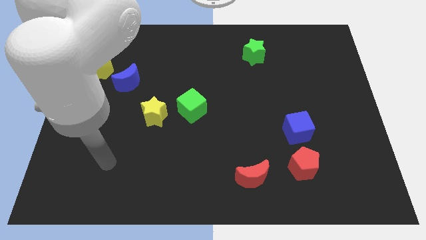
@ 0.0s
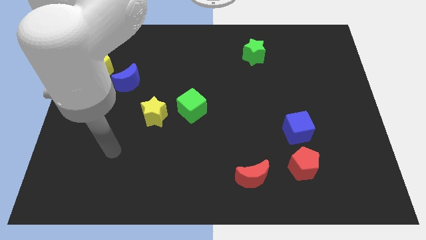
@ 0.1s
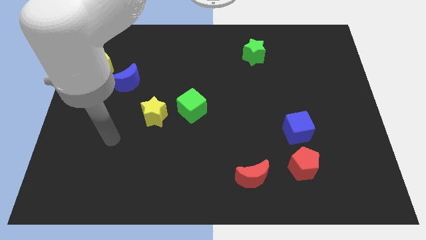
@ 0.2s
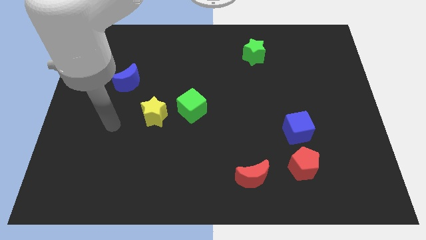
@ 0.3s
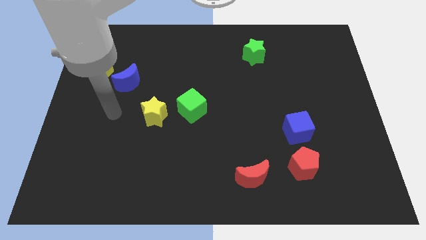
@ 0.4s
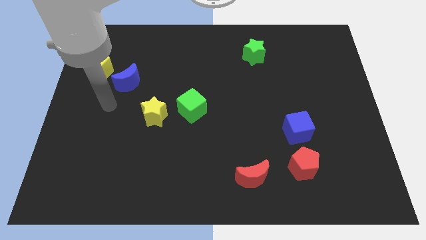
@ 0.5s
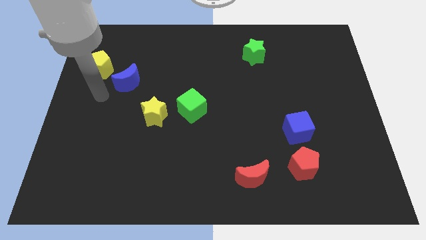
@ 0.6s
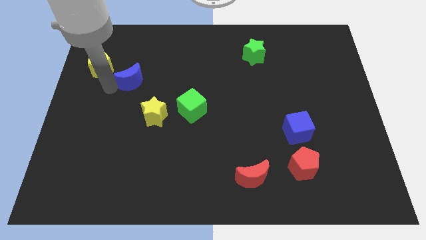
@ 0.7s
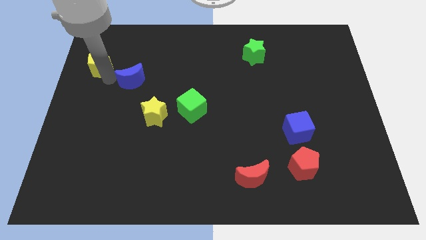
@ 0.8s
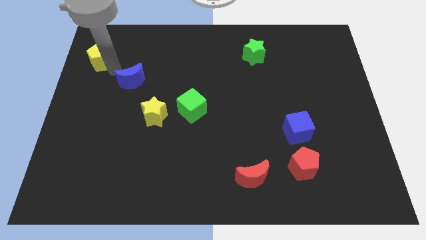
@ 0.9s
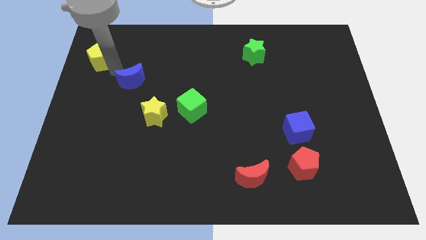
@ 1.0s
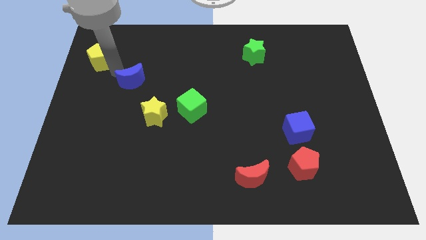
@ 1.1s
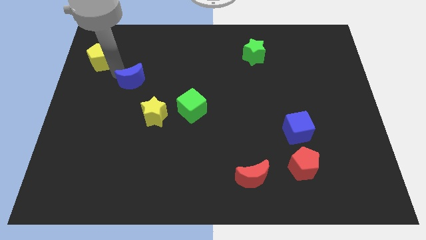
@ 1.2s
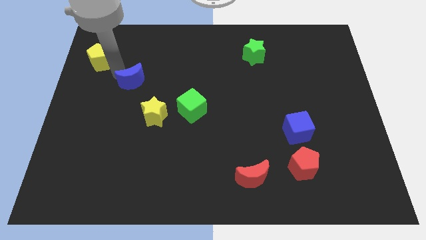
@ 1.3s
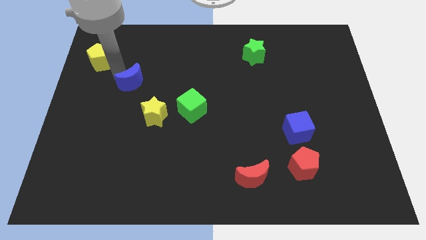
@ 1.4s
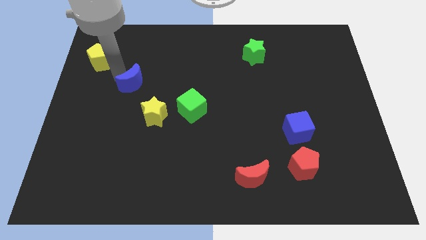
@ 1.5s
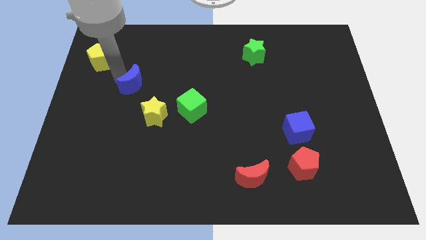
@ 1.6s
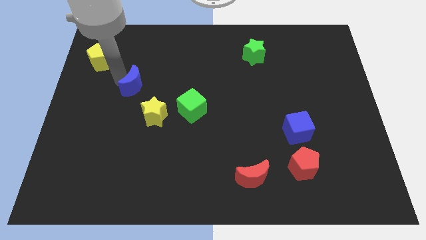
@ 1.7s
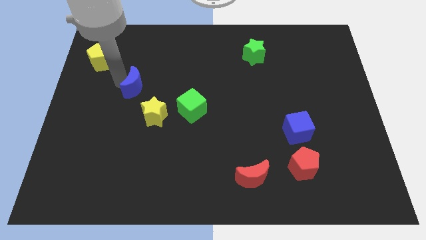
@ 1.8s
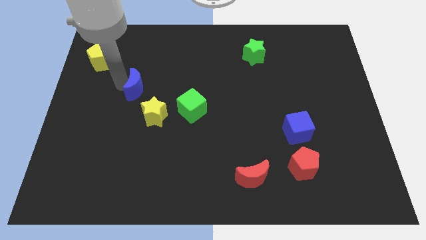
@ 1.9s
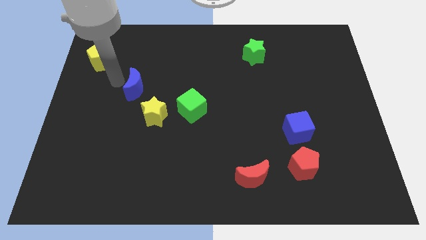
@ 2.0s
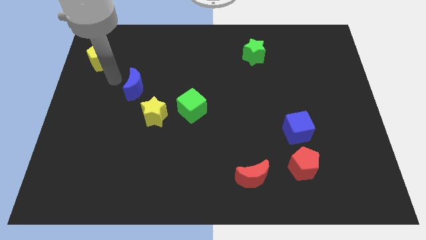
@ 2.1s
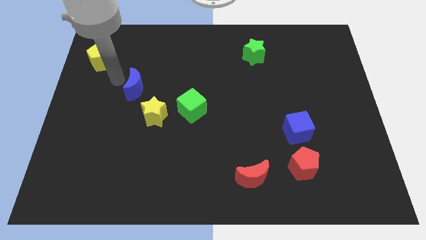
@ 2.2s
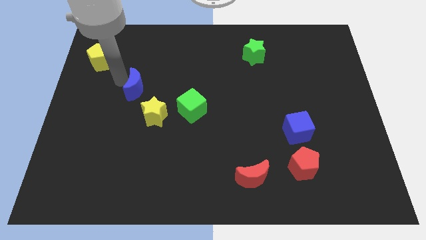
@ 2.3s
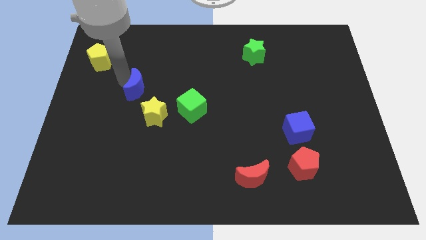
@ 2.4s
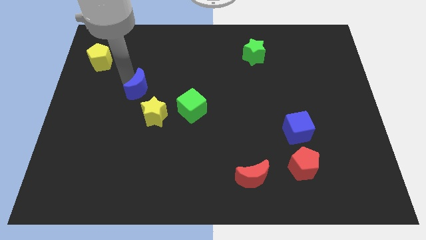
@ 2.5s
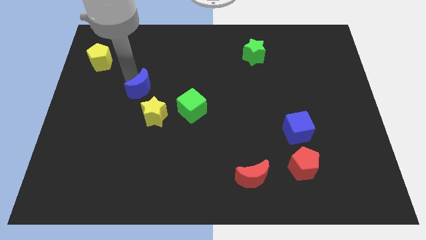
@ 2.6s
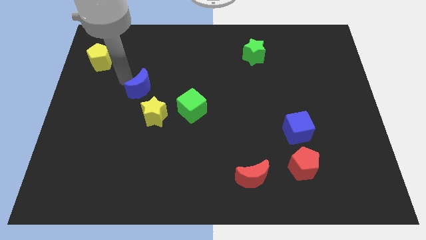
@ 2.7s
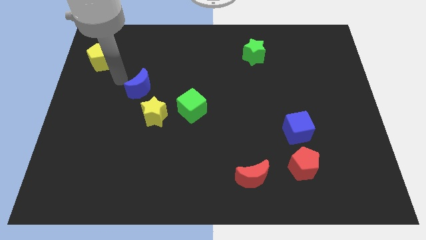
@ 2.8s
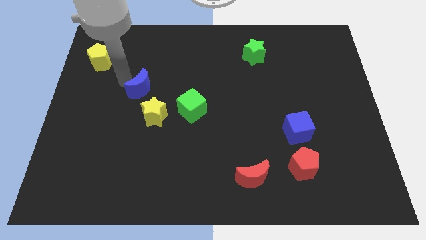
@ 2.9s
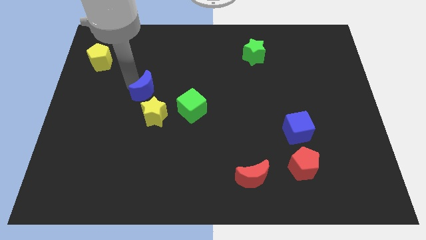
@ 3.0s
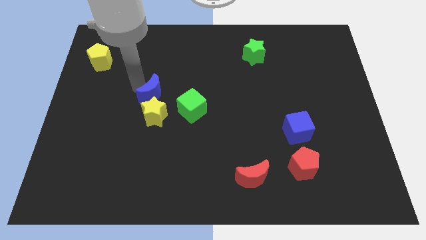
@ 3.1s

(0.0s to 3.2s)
slightly push the blue moon diagonally down and right

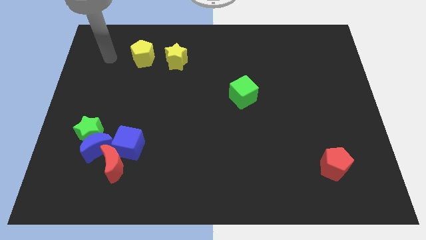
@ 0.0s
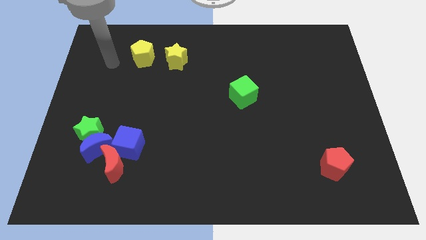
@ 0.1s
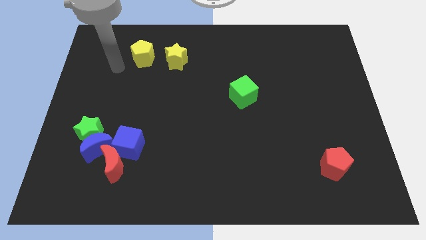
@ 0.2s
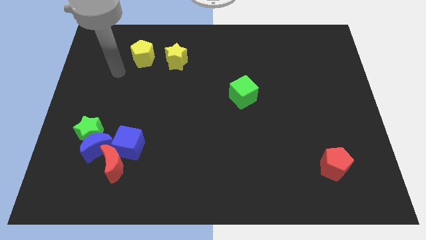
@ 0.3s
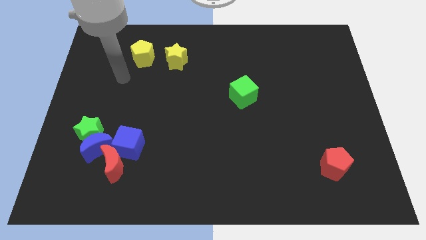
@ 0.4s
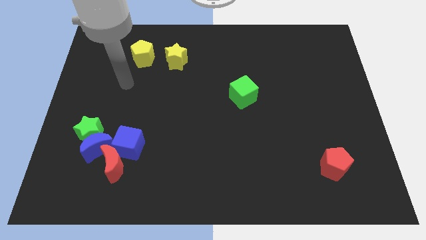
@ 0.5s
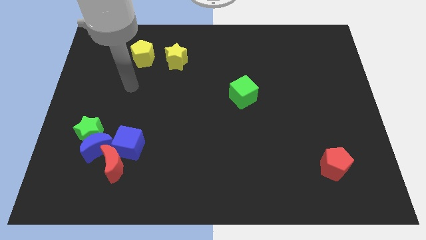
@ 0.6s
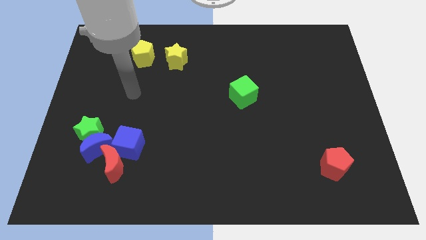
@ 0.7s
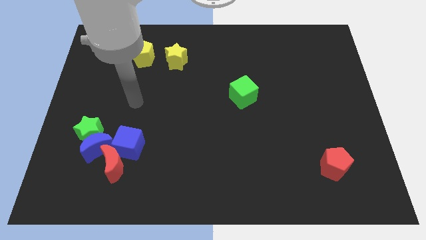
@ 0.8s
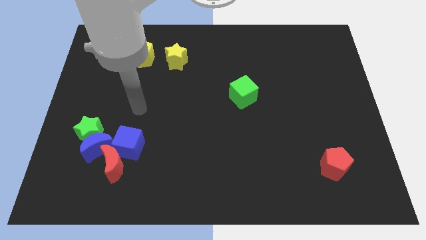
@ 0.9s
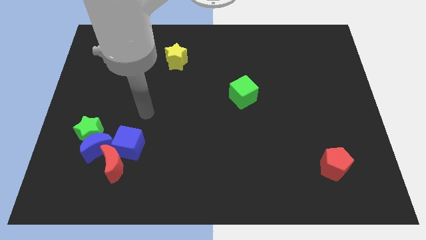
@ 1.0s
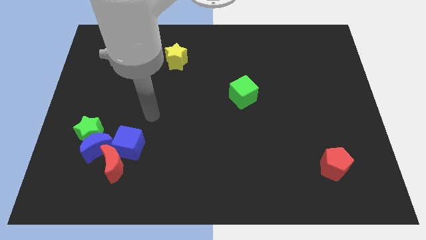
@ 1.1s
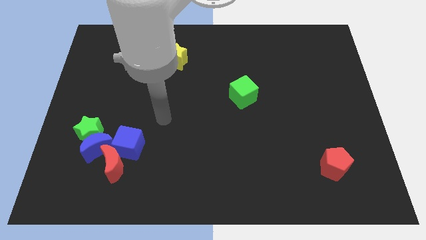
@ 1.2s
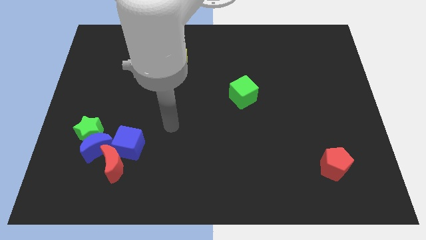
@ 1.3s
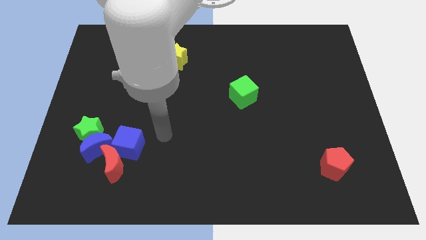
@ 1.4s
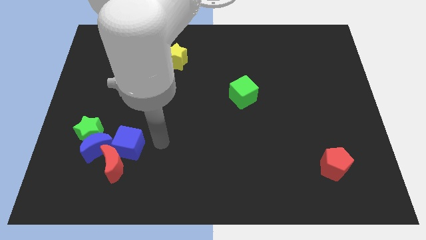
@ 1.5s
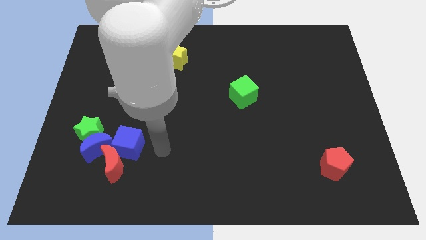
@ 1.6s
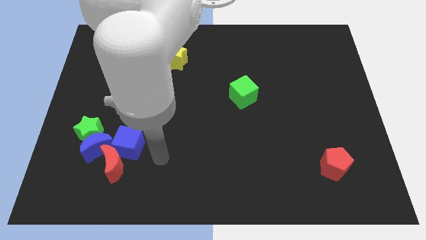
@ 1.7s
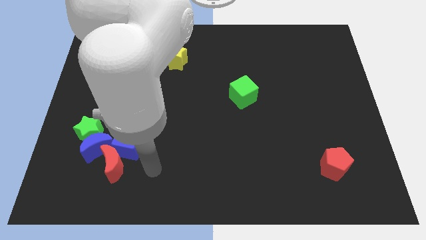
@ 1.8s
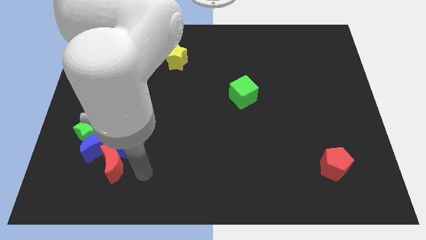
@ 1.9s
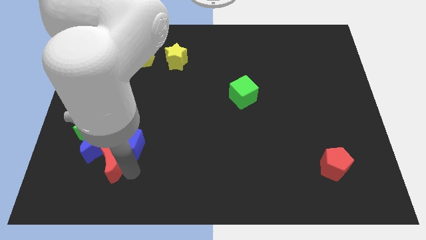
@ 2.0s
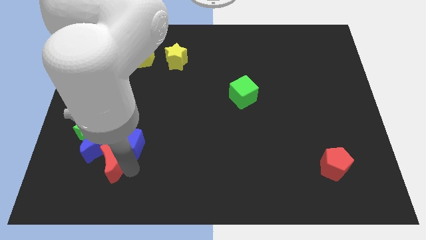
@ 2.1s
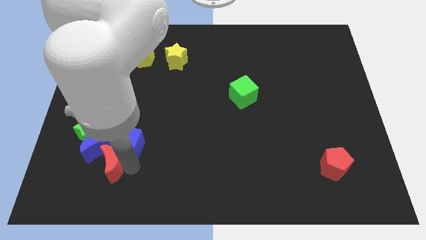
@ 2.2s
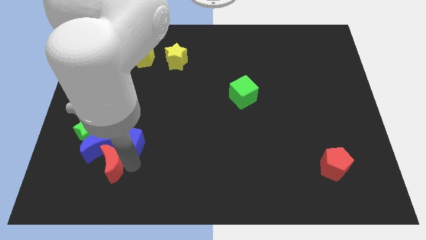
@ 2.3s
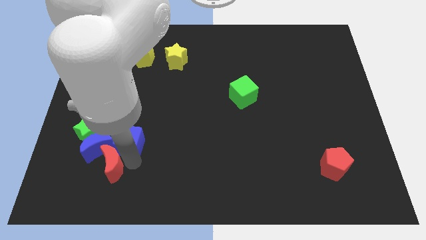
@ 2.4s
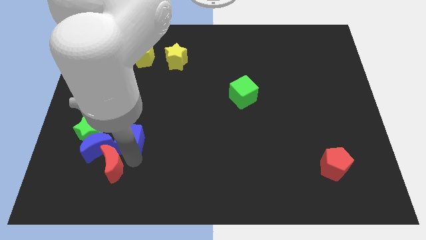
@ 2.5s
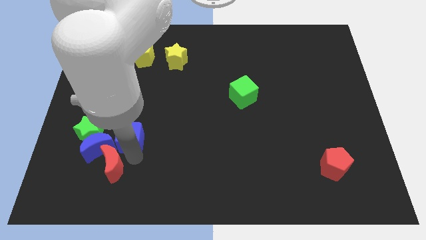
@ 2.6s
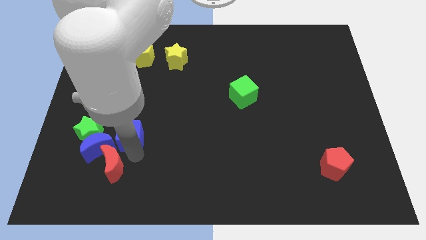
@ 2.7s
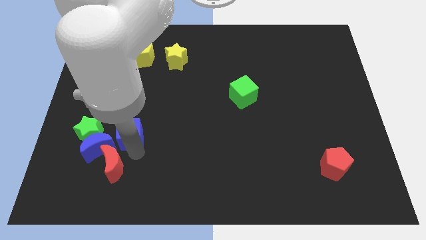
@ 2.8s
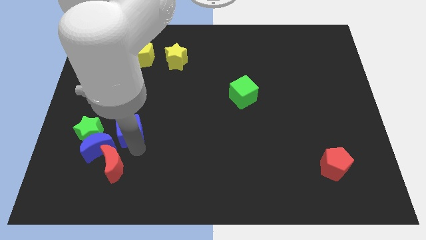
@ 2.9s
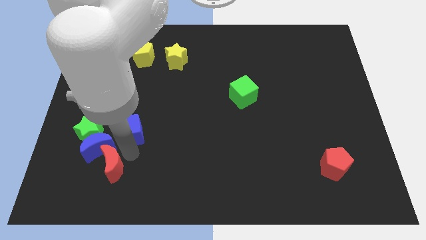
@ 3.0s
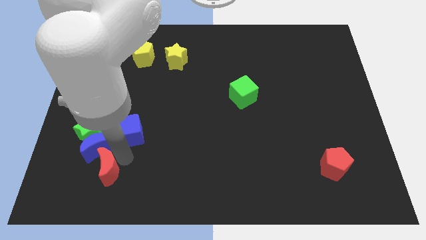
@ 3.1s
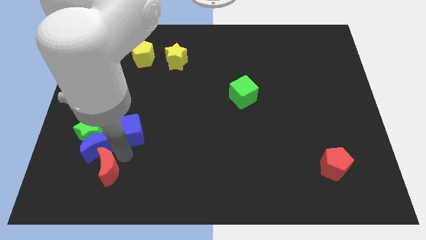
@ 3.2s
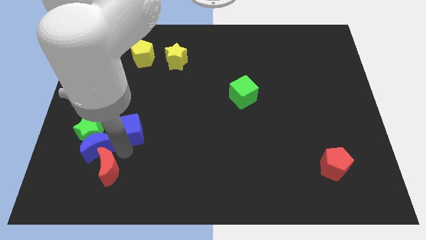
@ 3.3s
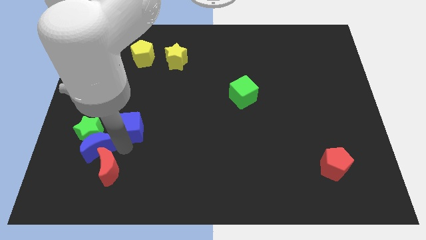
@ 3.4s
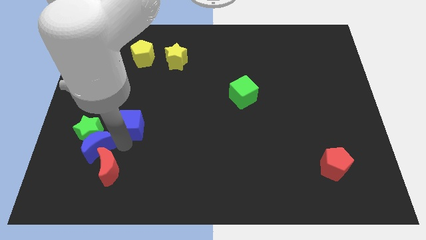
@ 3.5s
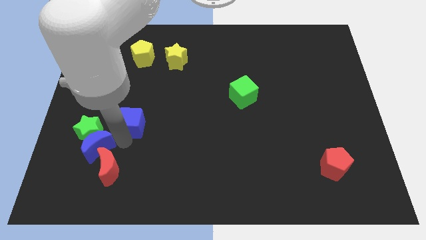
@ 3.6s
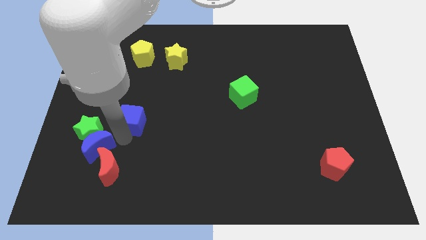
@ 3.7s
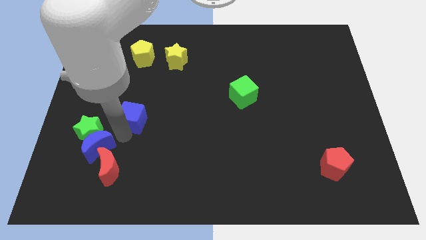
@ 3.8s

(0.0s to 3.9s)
slide the blue cube upwards a little

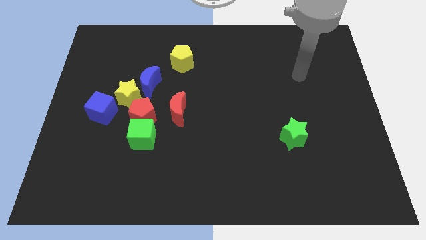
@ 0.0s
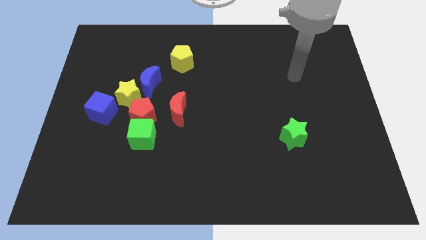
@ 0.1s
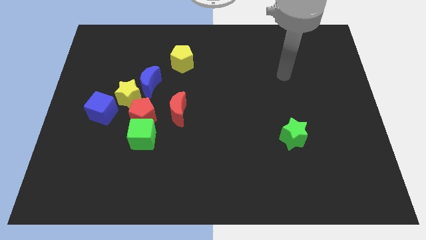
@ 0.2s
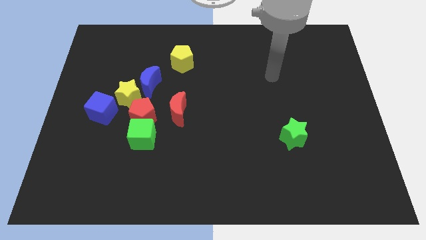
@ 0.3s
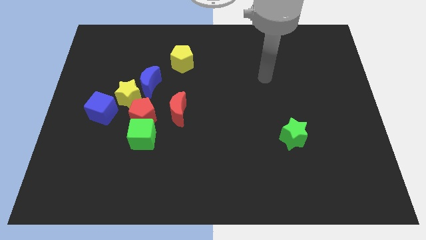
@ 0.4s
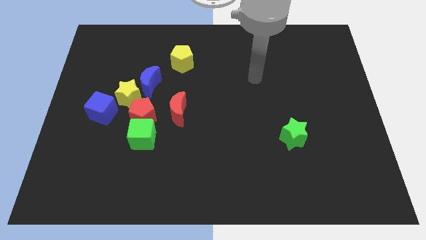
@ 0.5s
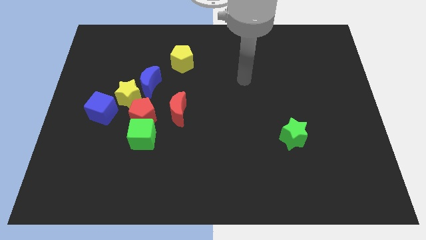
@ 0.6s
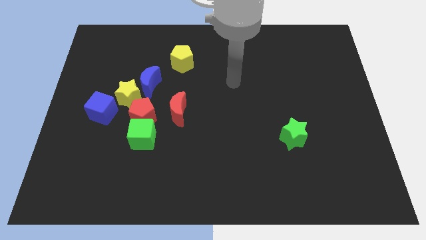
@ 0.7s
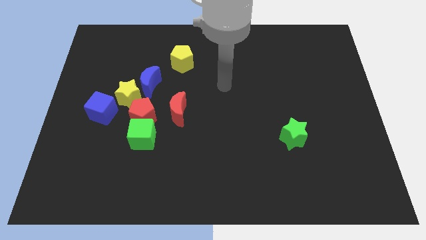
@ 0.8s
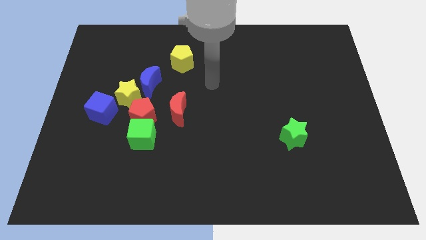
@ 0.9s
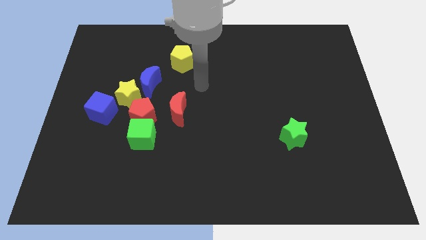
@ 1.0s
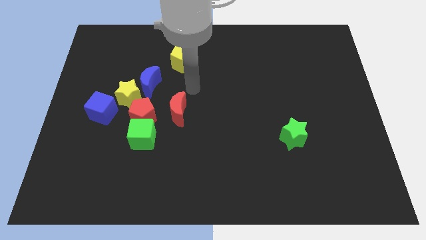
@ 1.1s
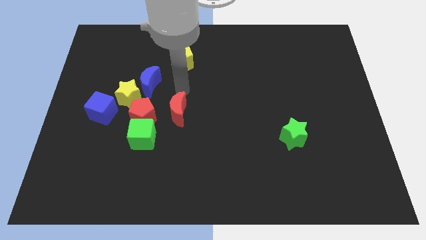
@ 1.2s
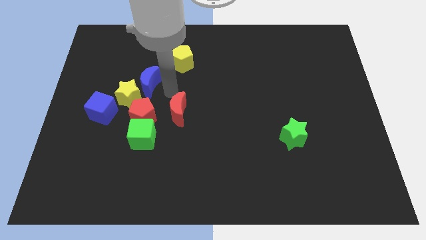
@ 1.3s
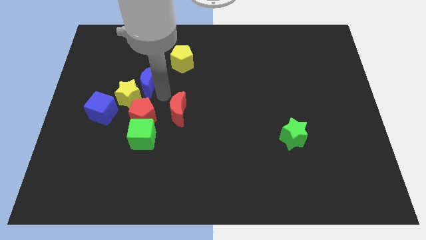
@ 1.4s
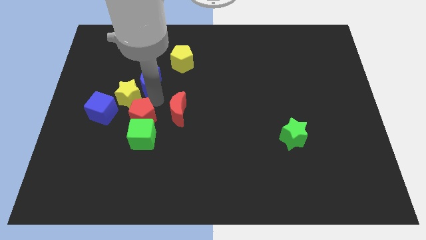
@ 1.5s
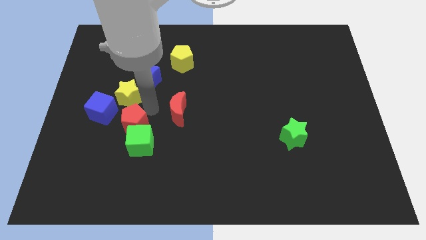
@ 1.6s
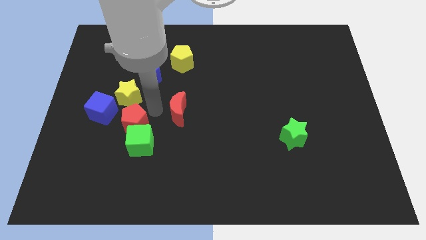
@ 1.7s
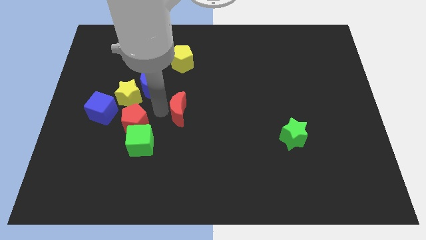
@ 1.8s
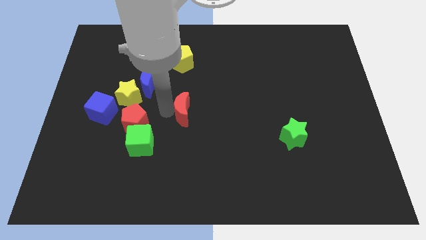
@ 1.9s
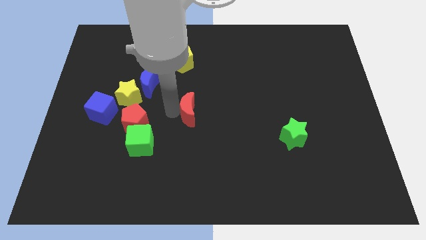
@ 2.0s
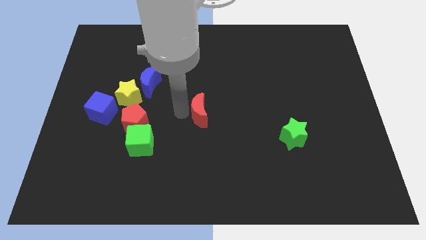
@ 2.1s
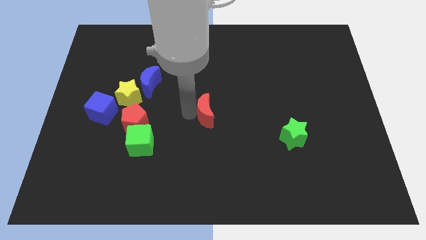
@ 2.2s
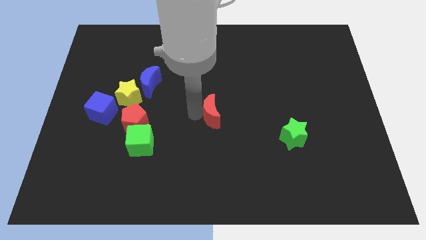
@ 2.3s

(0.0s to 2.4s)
move the red moon right a little bit
